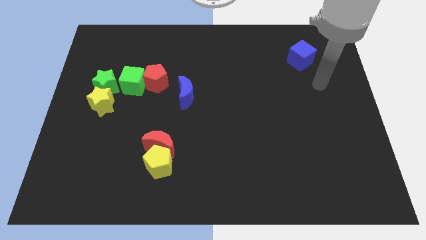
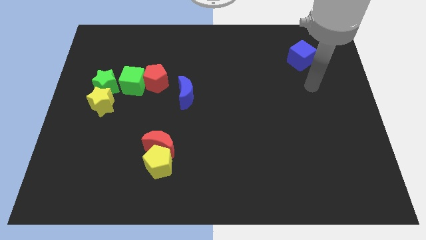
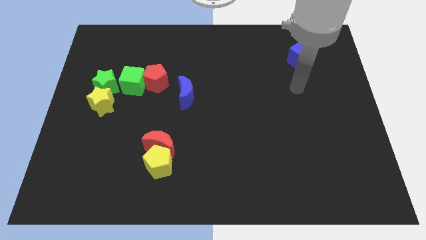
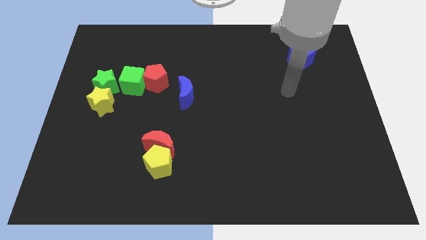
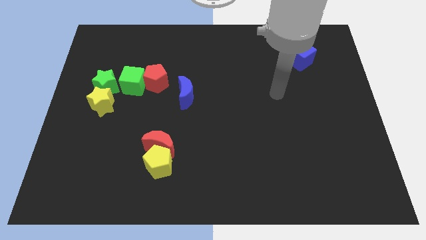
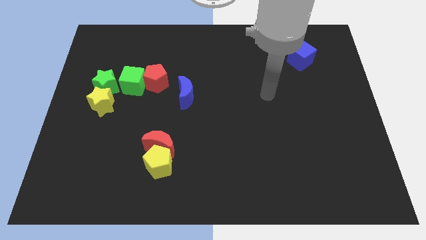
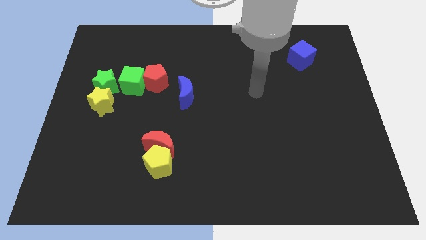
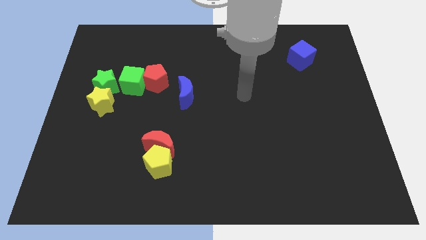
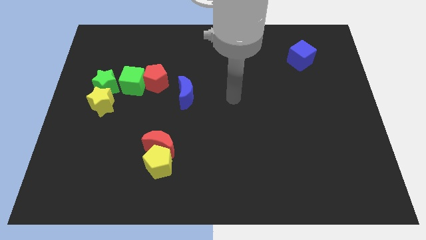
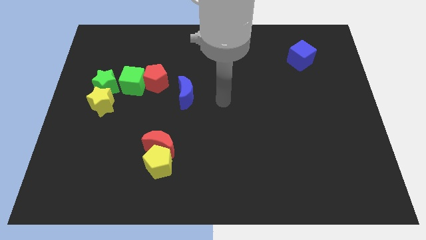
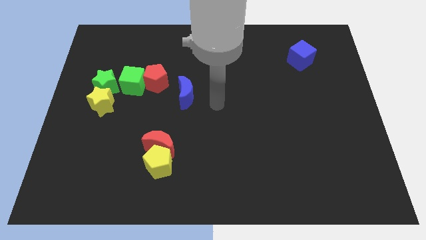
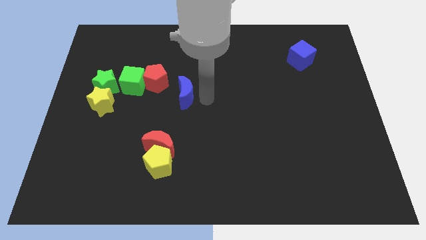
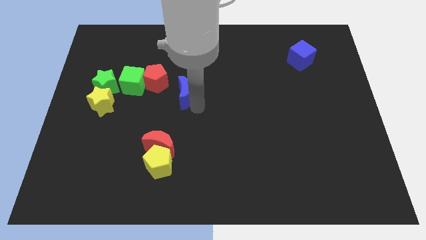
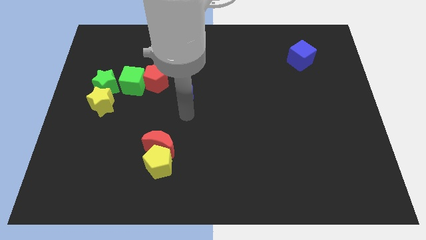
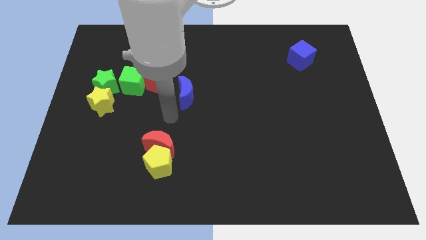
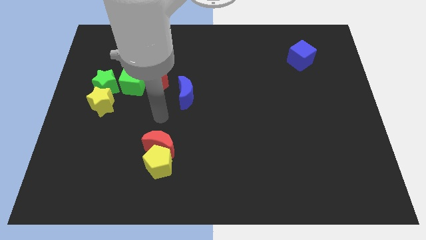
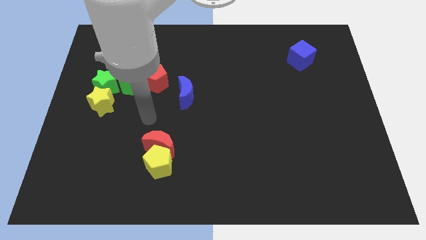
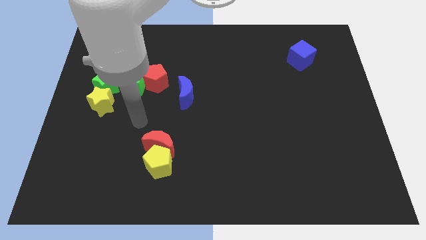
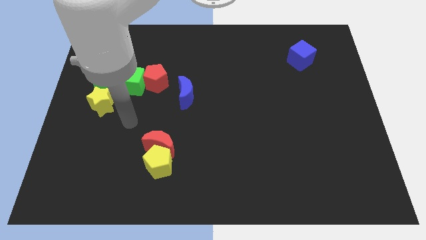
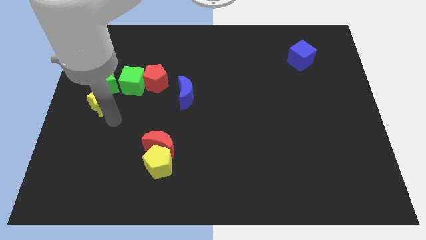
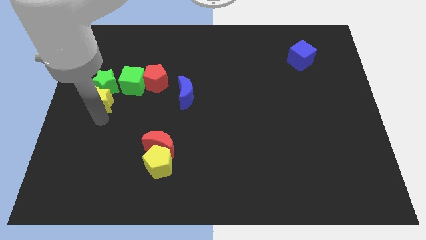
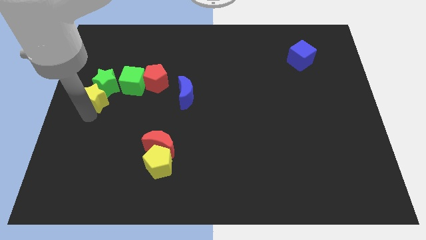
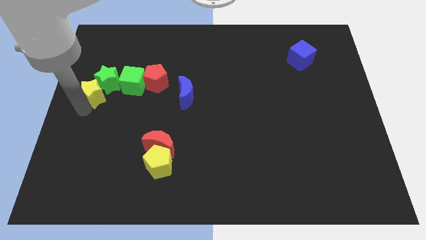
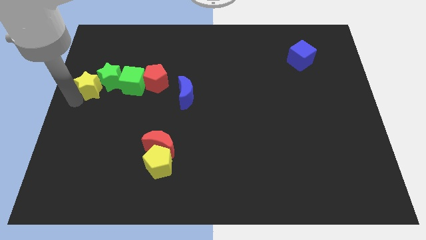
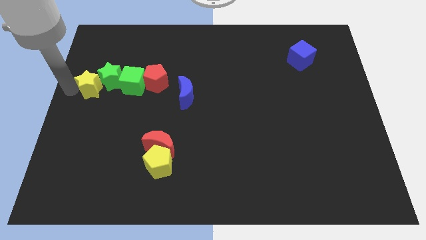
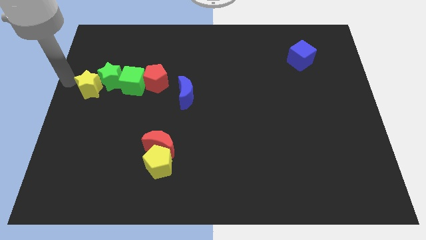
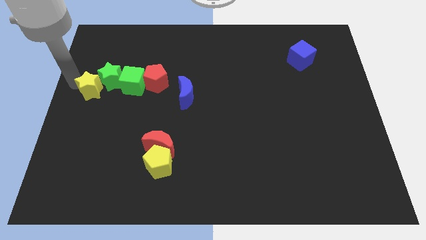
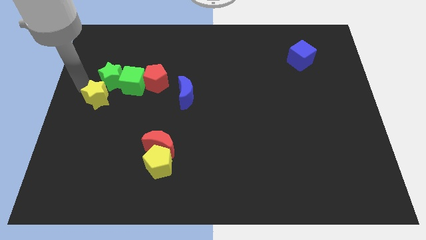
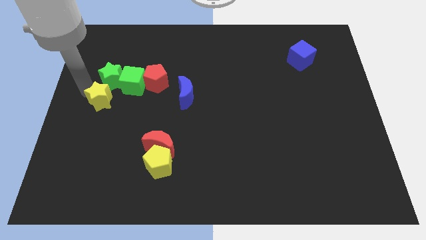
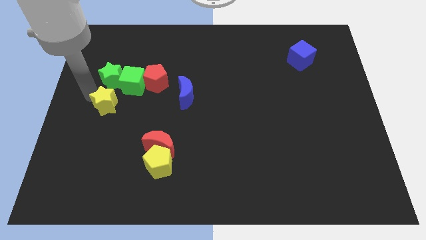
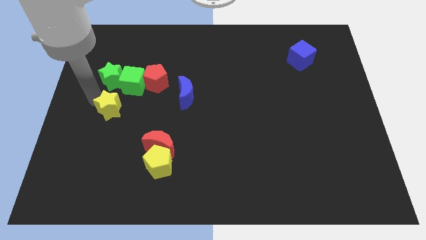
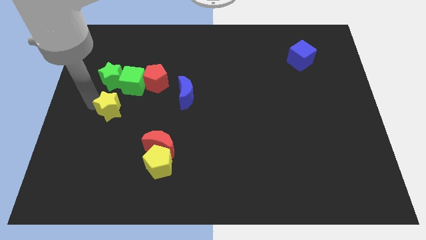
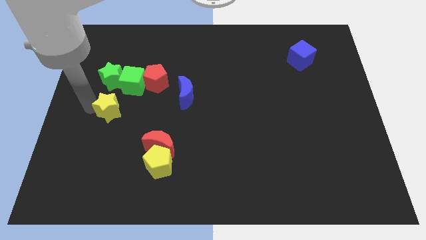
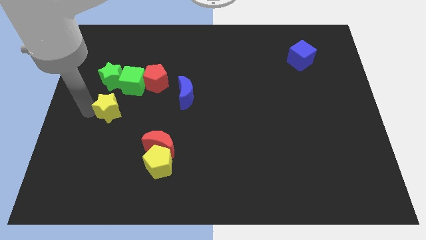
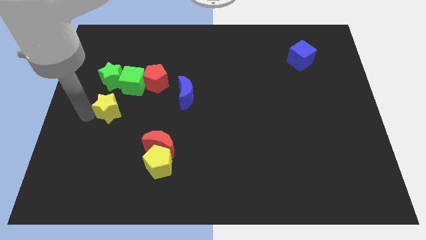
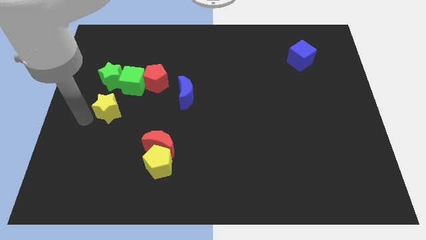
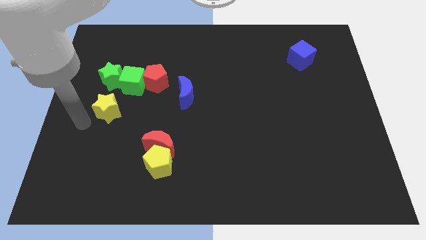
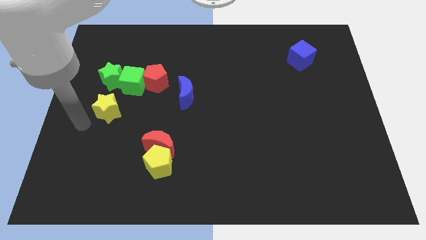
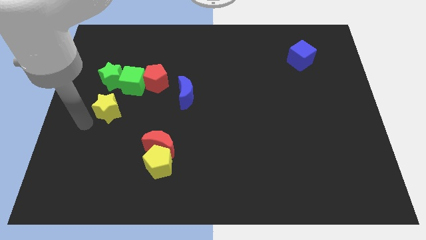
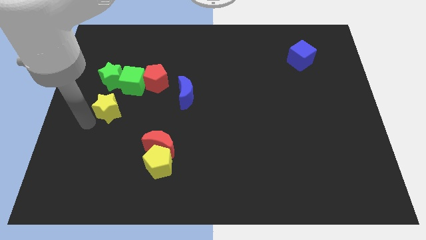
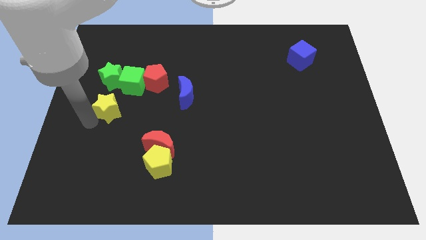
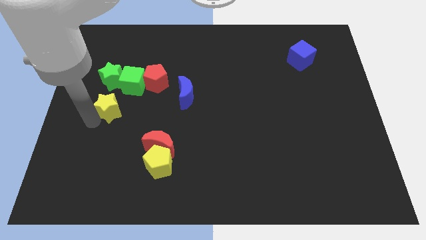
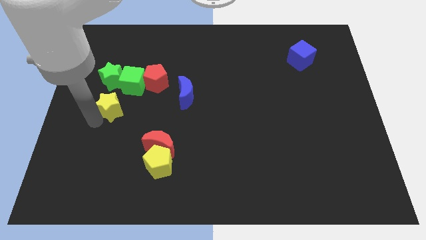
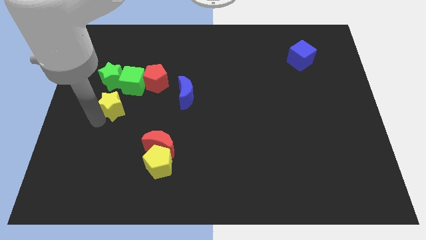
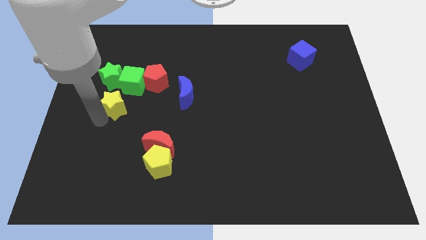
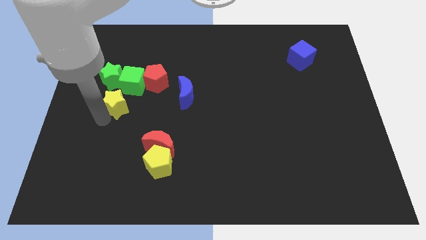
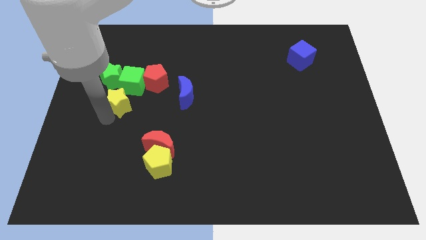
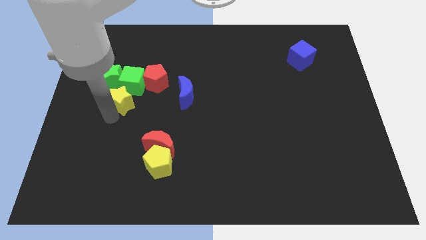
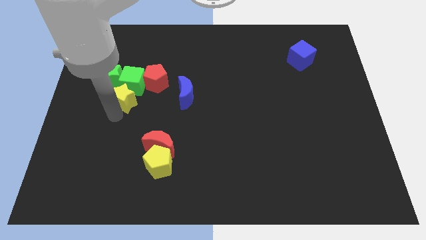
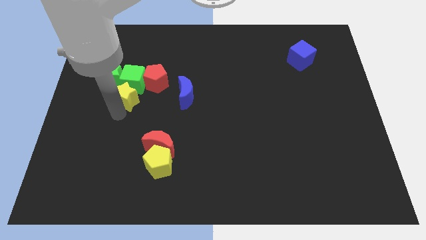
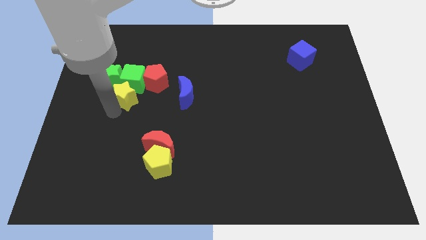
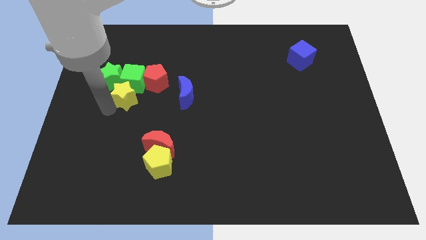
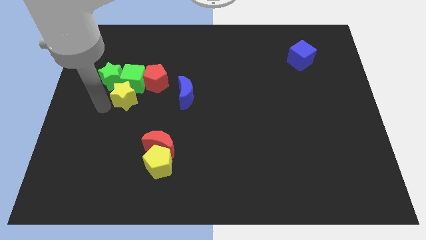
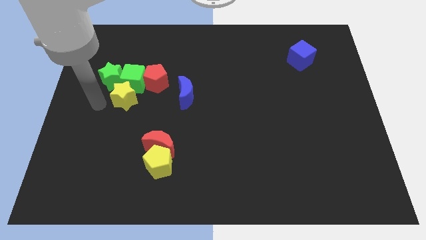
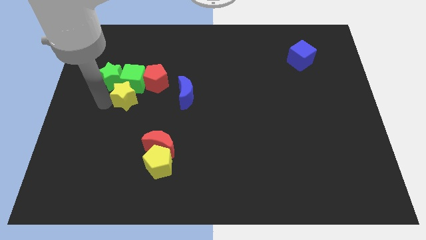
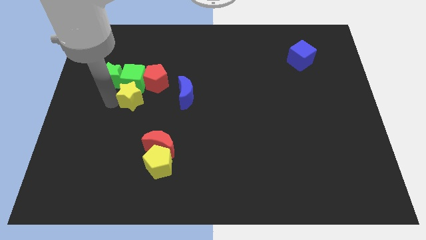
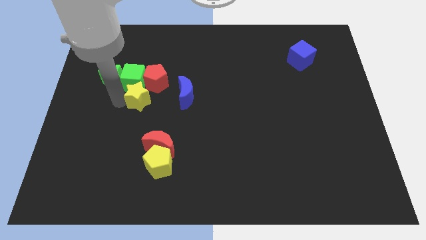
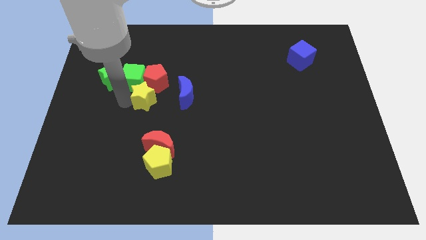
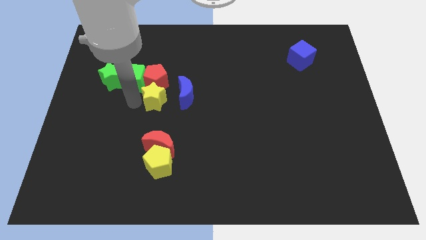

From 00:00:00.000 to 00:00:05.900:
slide the yellow star a little upwards and to the right diagonally

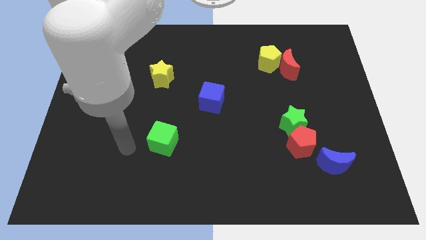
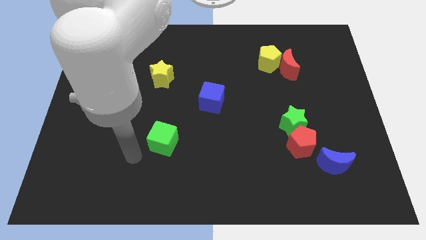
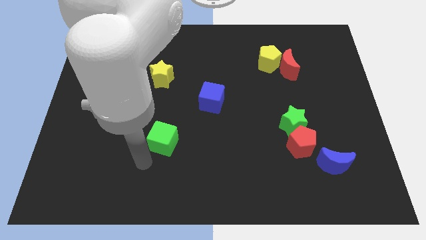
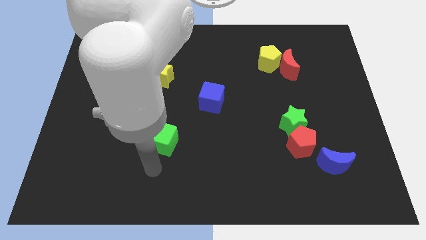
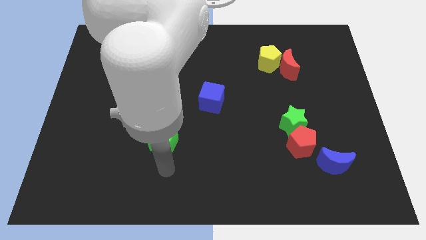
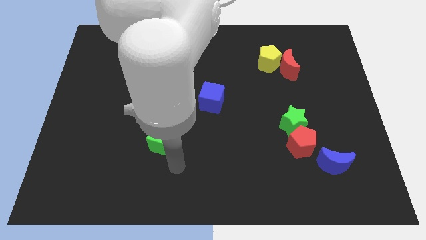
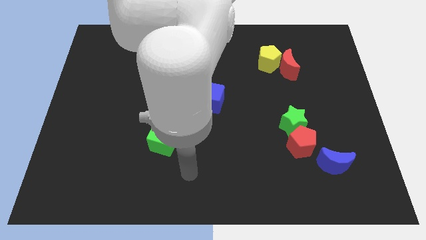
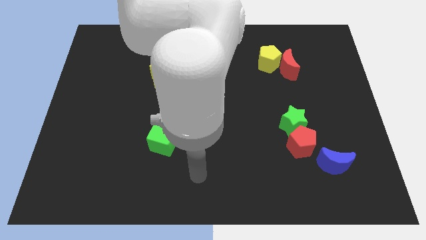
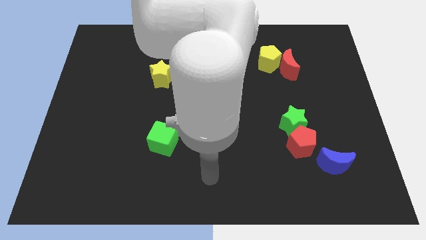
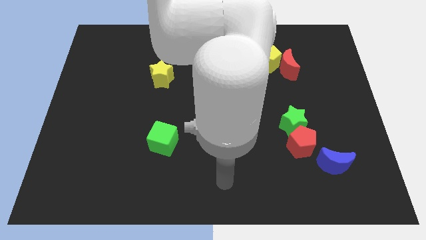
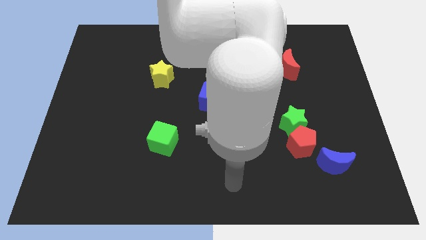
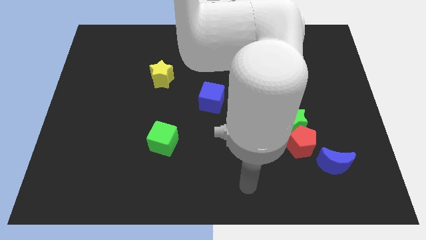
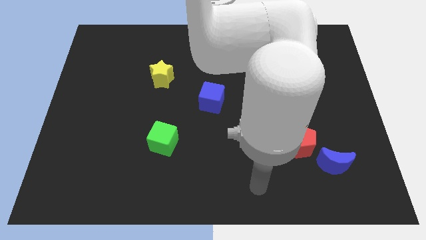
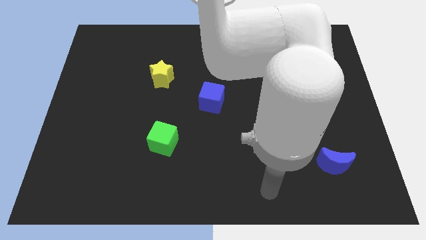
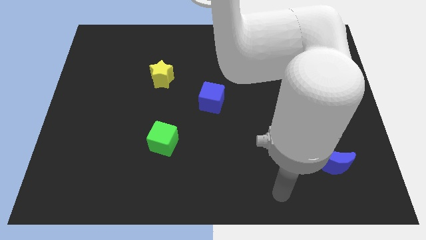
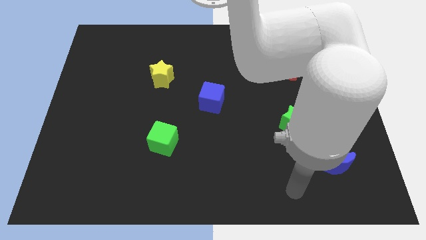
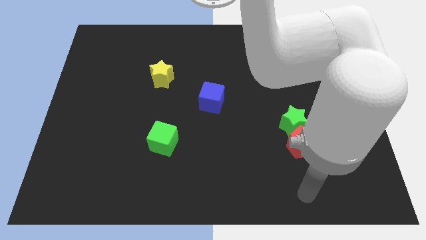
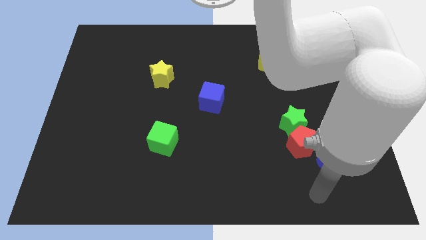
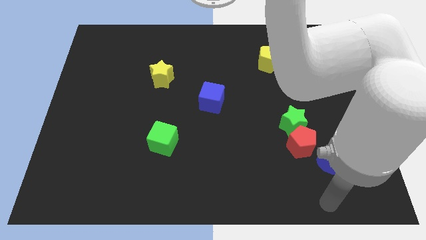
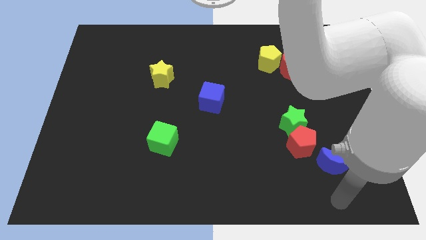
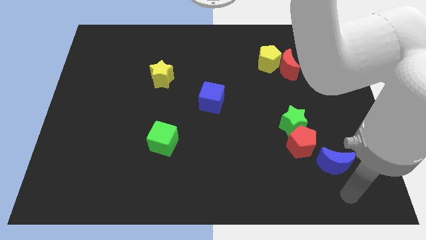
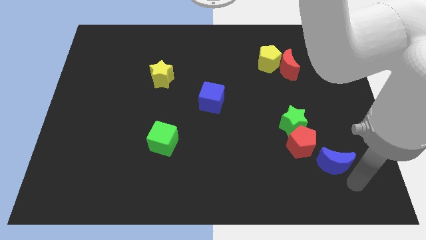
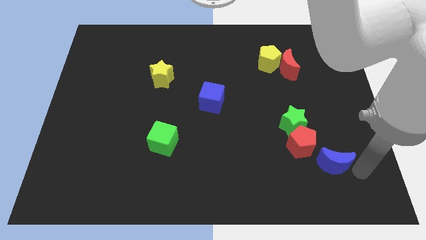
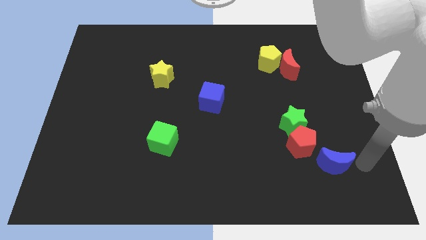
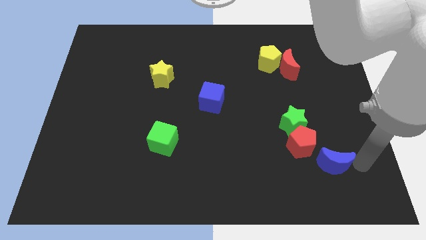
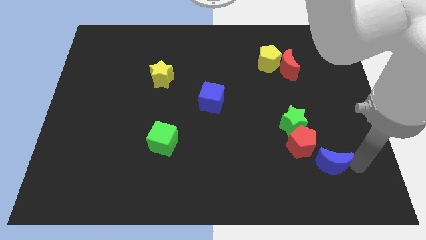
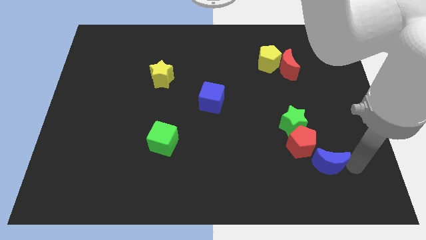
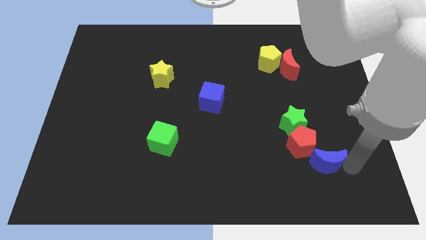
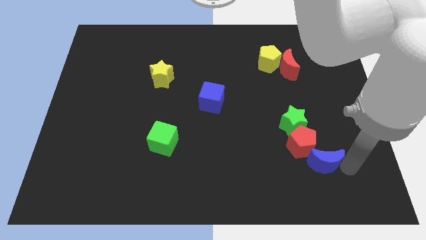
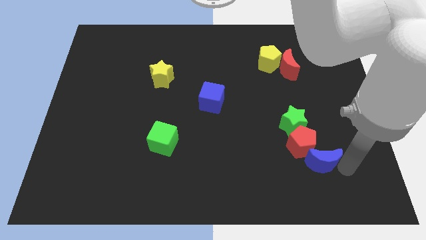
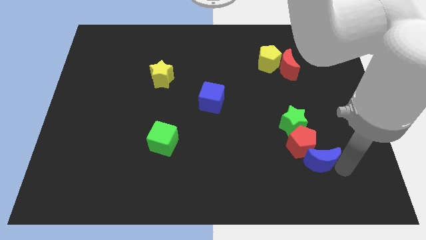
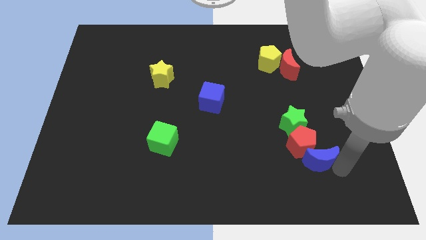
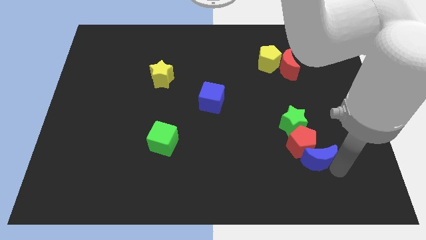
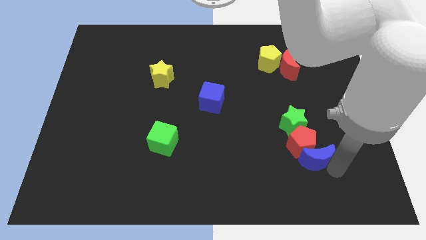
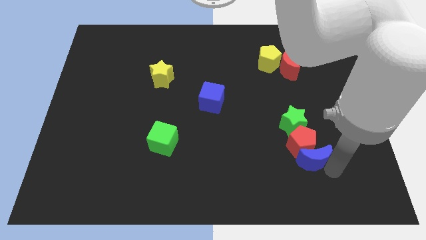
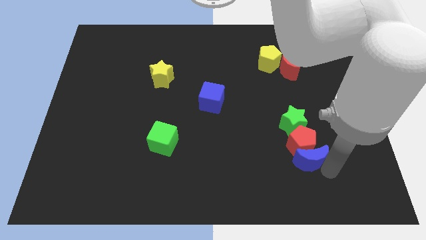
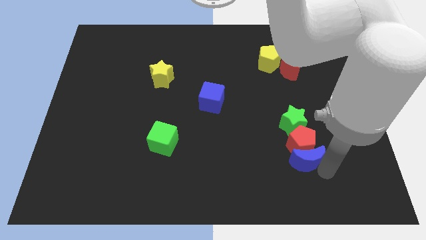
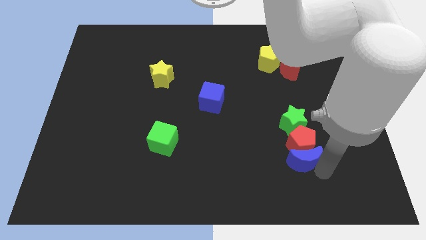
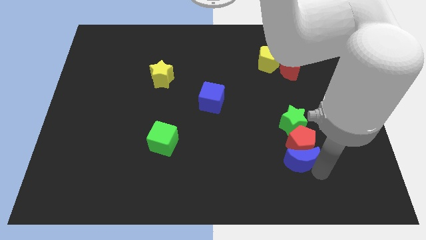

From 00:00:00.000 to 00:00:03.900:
push the blue moon to the left a little bit
